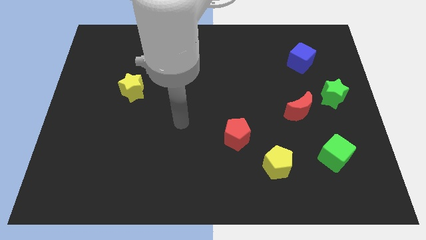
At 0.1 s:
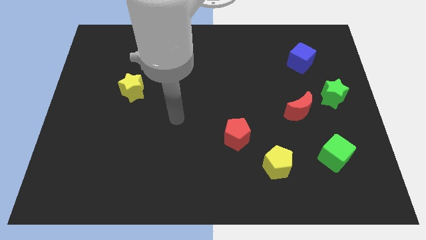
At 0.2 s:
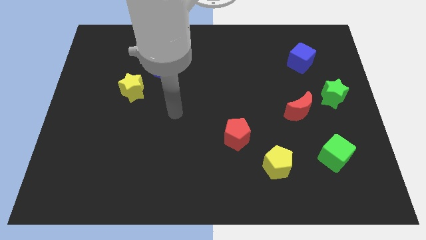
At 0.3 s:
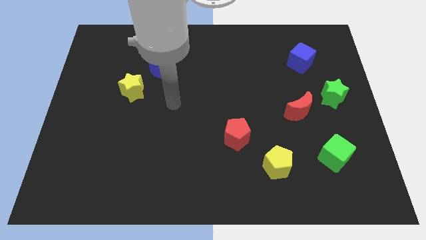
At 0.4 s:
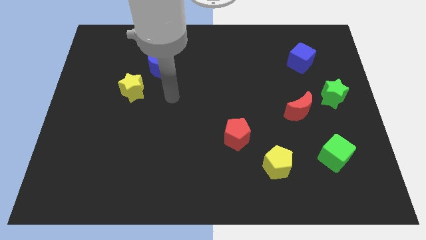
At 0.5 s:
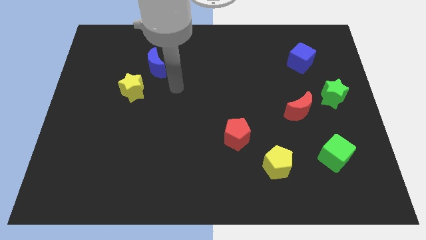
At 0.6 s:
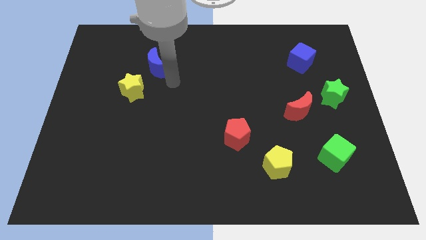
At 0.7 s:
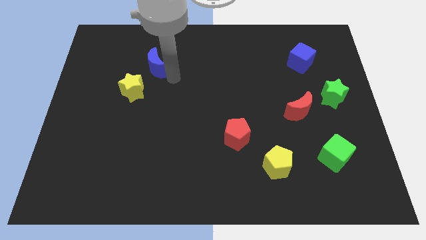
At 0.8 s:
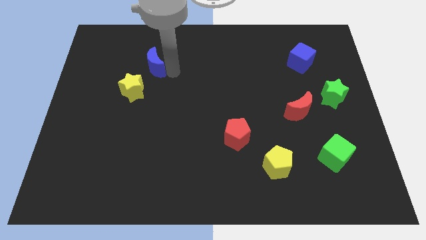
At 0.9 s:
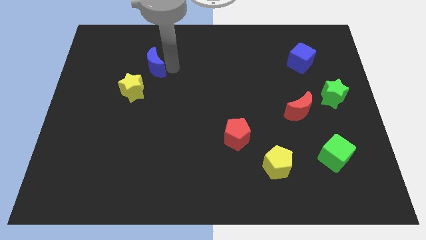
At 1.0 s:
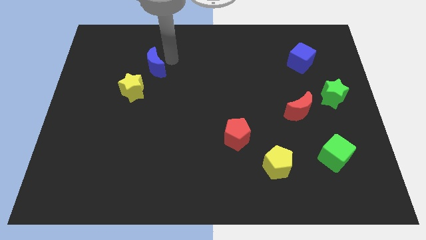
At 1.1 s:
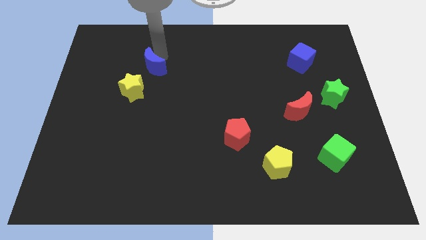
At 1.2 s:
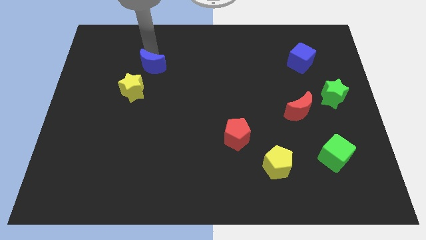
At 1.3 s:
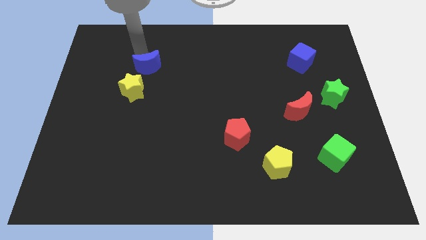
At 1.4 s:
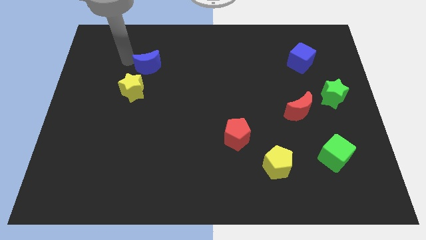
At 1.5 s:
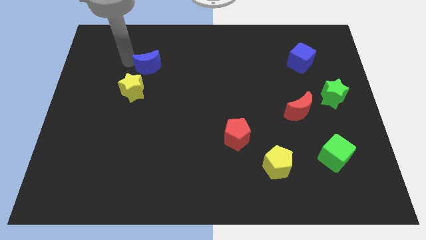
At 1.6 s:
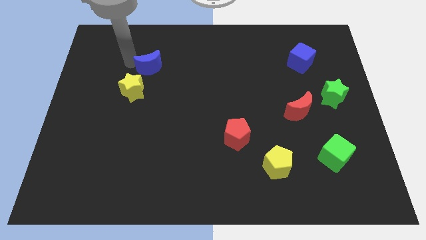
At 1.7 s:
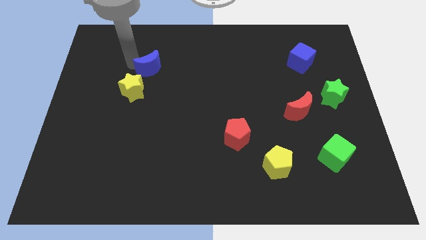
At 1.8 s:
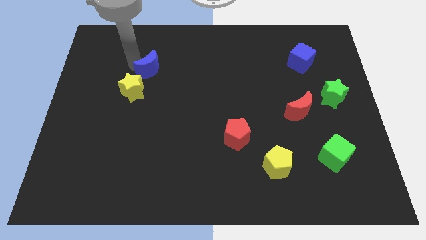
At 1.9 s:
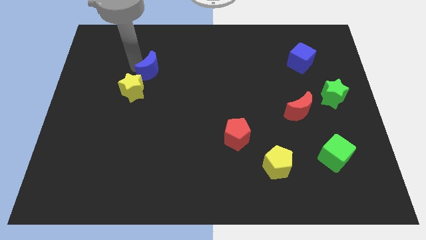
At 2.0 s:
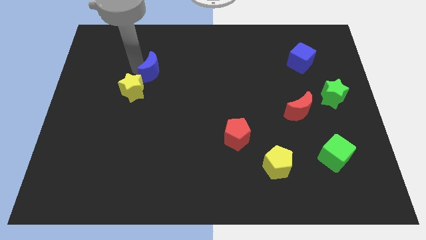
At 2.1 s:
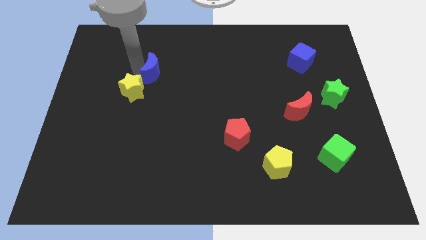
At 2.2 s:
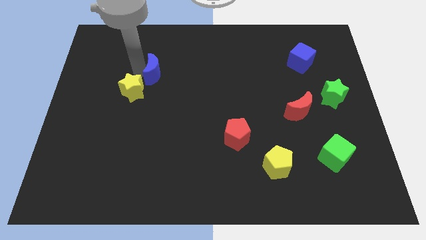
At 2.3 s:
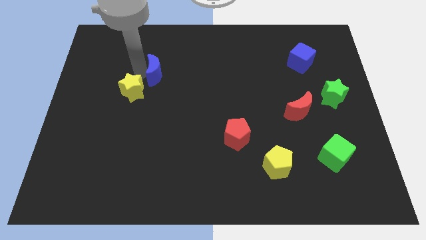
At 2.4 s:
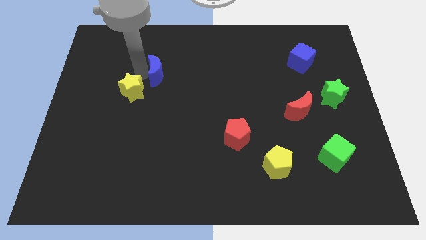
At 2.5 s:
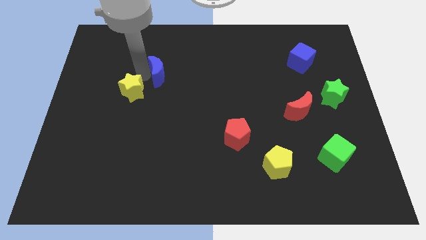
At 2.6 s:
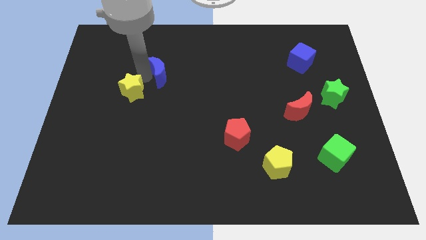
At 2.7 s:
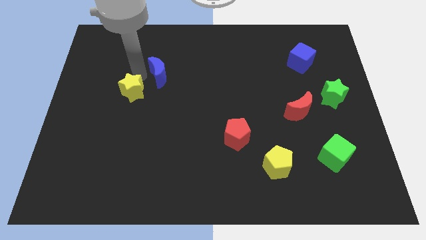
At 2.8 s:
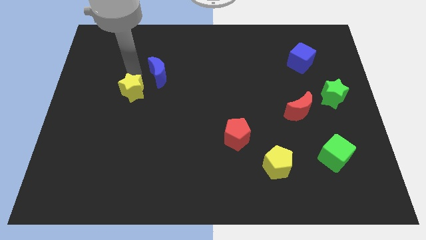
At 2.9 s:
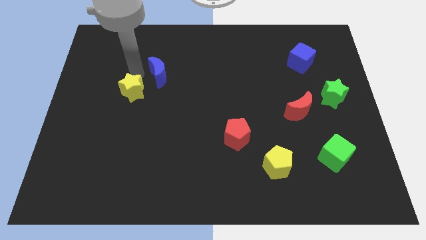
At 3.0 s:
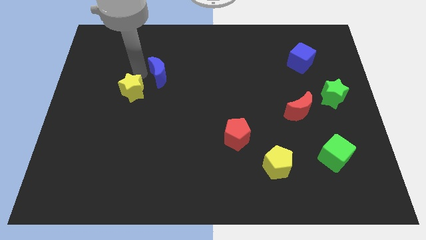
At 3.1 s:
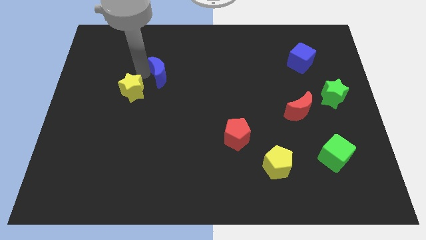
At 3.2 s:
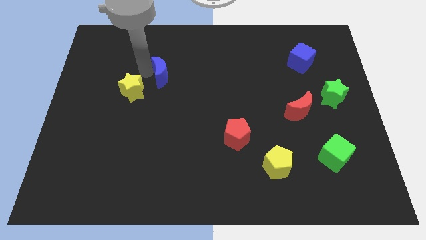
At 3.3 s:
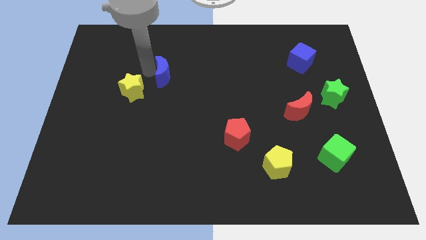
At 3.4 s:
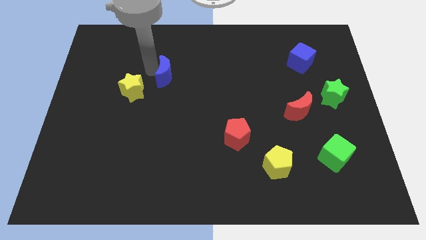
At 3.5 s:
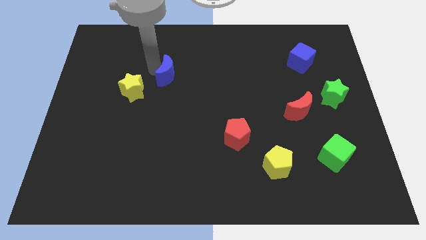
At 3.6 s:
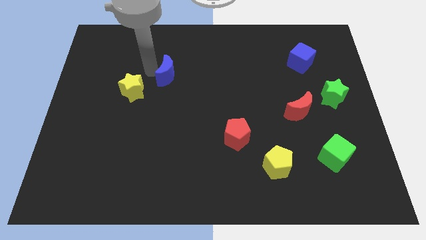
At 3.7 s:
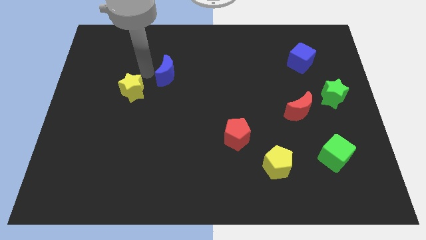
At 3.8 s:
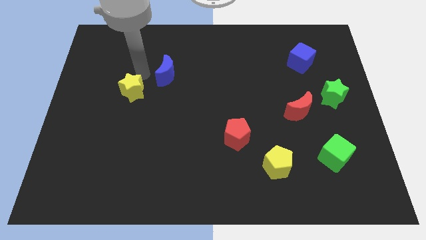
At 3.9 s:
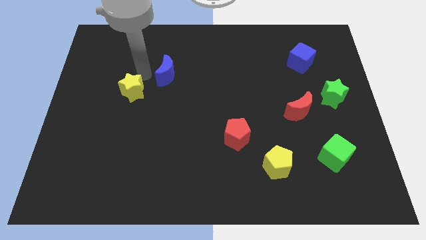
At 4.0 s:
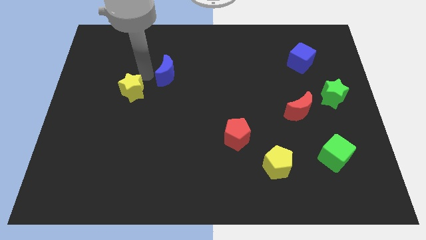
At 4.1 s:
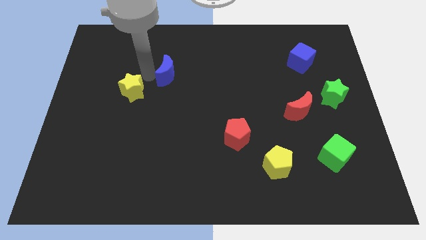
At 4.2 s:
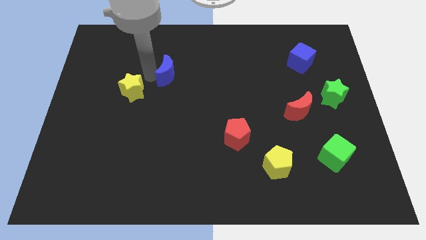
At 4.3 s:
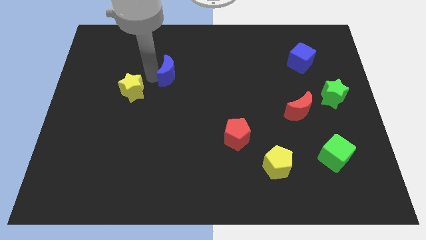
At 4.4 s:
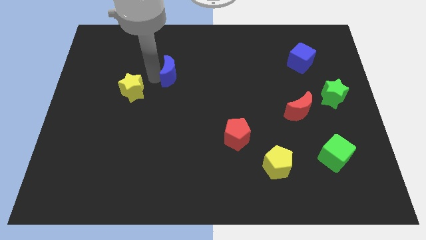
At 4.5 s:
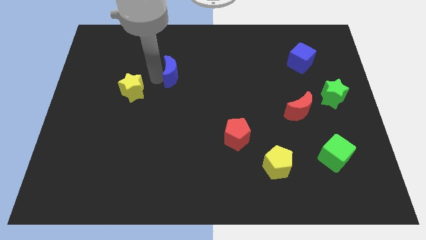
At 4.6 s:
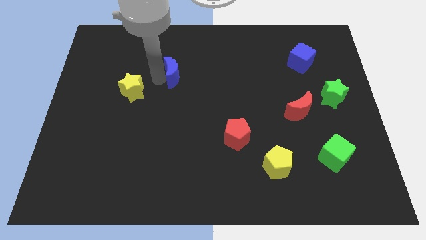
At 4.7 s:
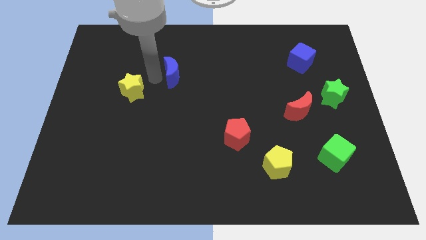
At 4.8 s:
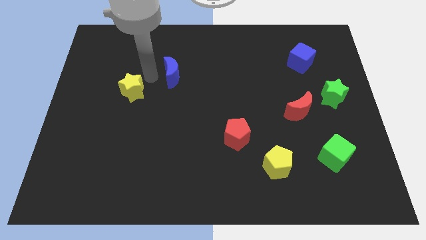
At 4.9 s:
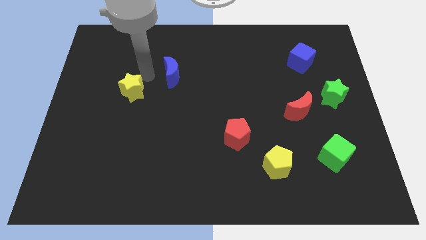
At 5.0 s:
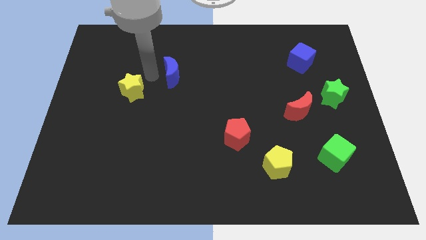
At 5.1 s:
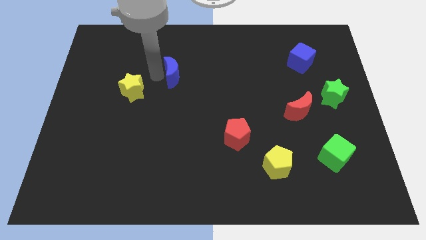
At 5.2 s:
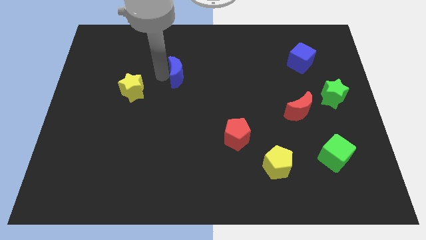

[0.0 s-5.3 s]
push the blue moon to the center

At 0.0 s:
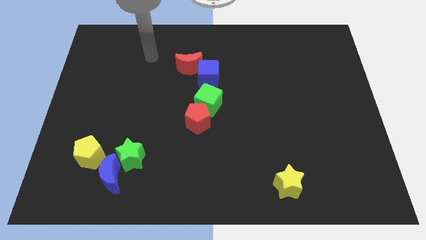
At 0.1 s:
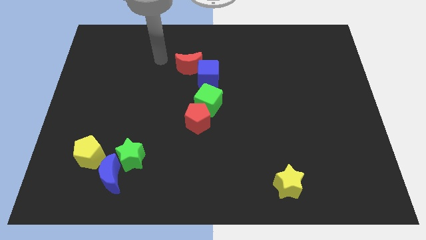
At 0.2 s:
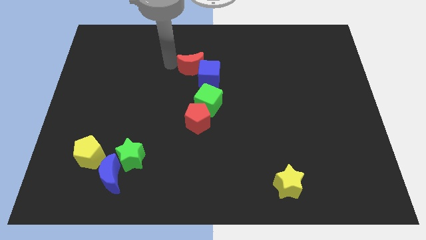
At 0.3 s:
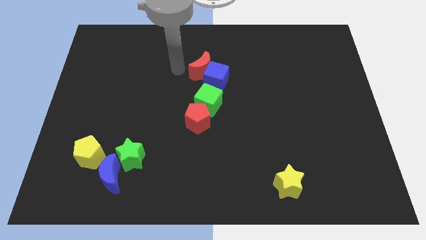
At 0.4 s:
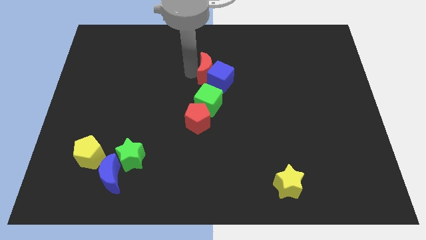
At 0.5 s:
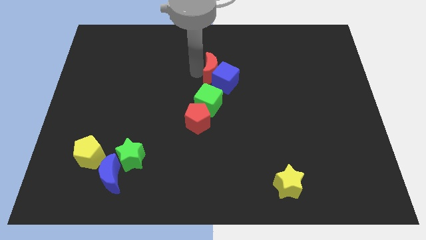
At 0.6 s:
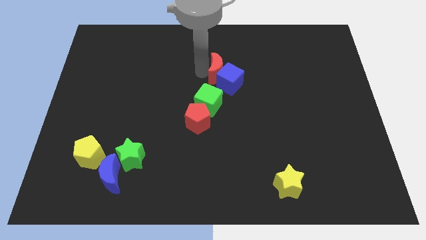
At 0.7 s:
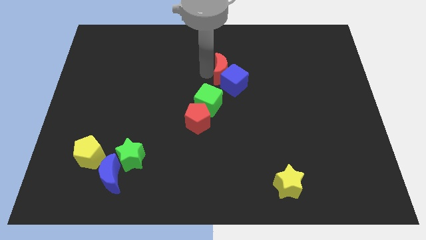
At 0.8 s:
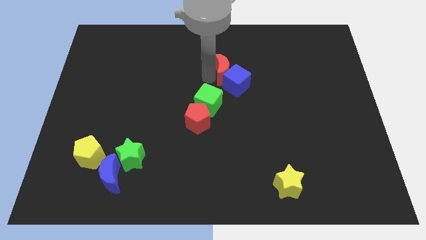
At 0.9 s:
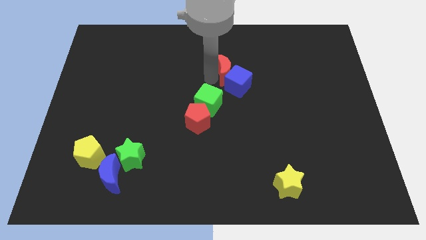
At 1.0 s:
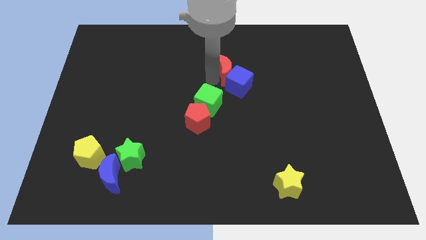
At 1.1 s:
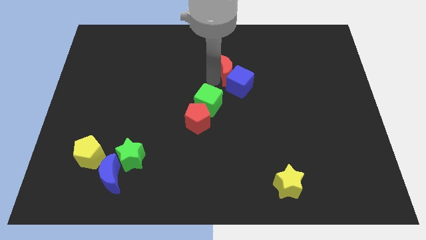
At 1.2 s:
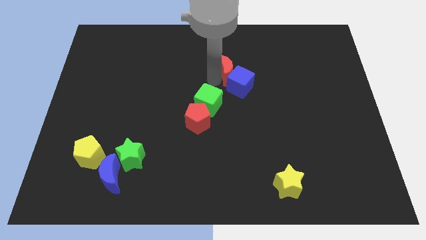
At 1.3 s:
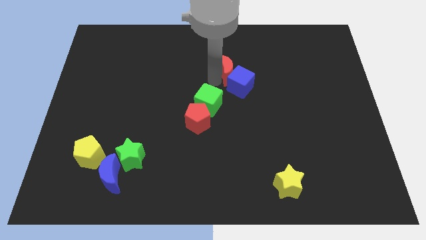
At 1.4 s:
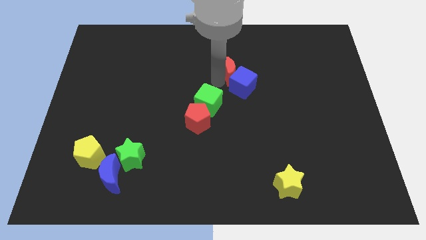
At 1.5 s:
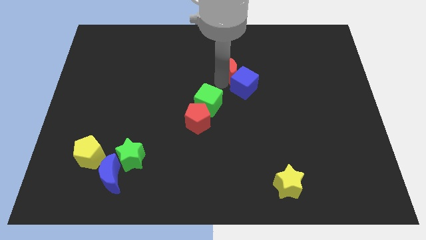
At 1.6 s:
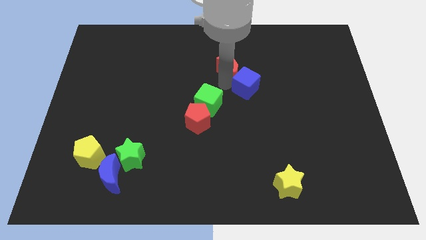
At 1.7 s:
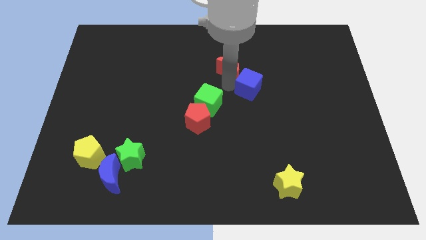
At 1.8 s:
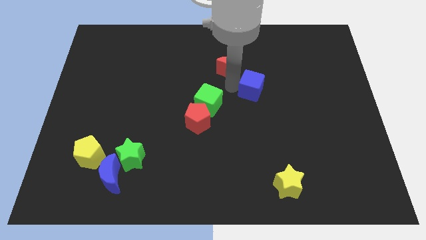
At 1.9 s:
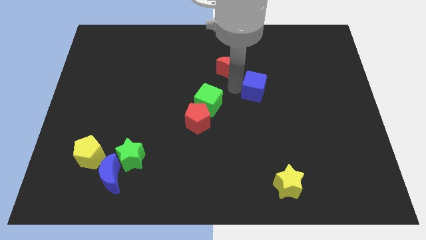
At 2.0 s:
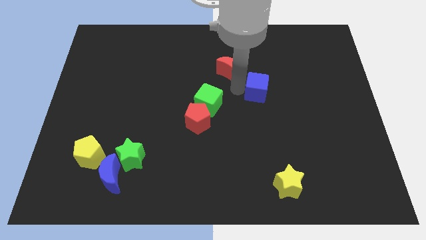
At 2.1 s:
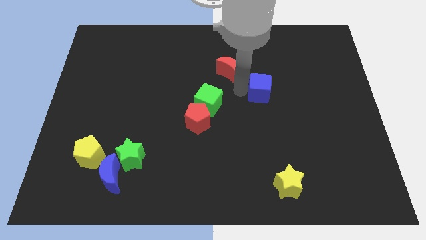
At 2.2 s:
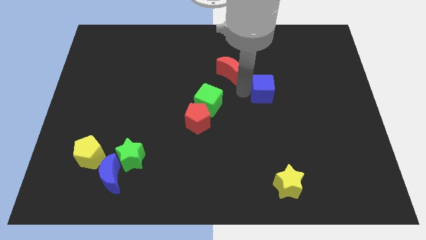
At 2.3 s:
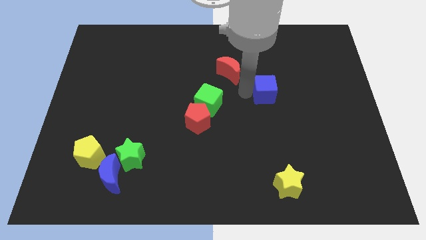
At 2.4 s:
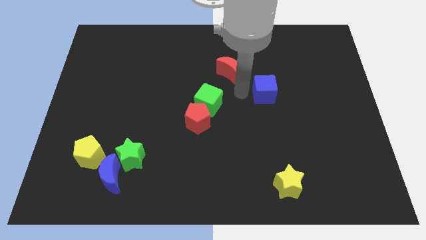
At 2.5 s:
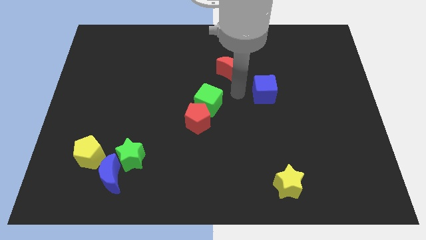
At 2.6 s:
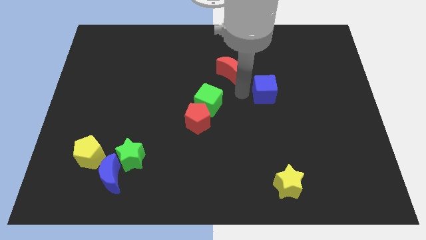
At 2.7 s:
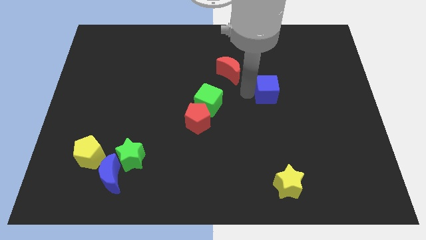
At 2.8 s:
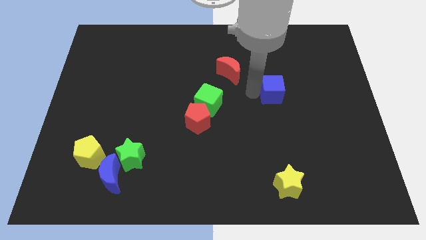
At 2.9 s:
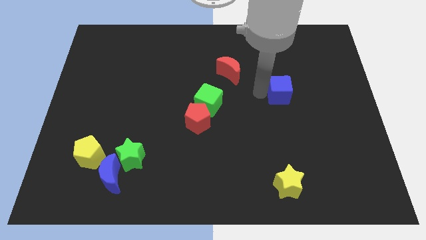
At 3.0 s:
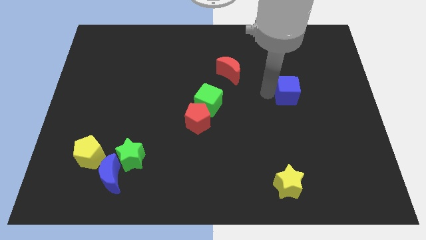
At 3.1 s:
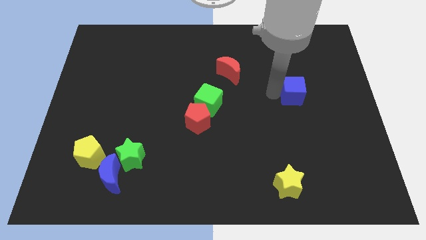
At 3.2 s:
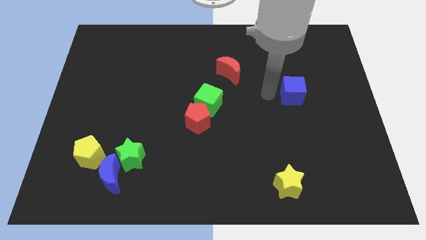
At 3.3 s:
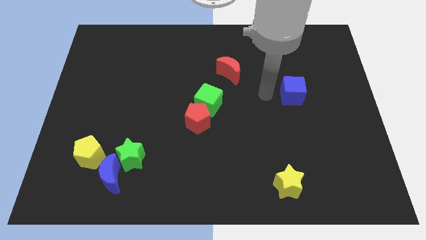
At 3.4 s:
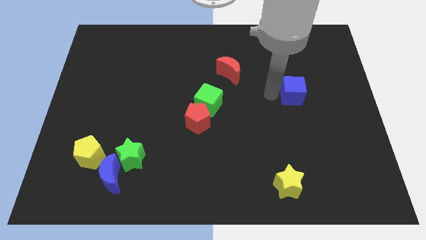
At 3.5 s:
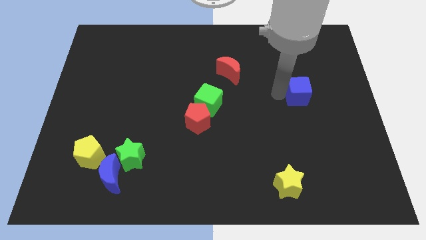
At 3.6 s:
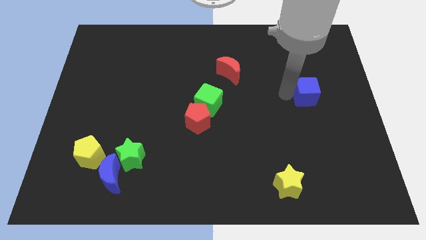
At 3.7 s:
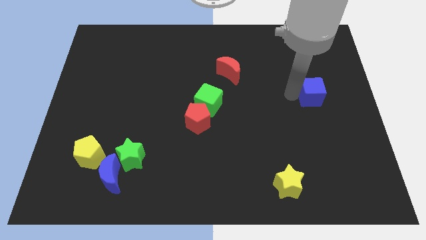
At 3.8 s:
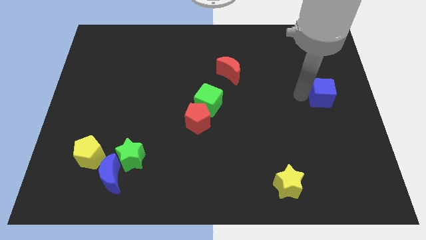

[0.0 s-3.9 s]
push the blue cube to the right side of the board
